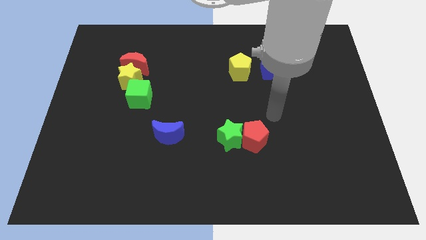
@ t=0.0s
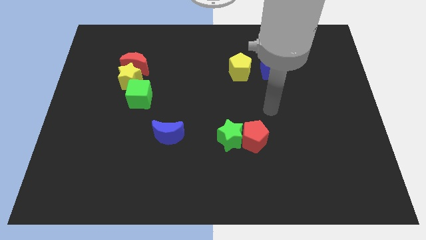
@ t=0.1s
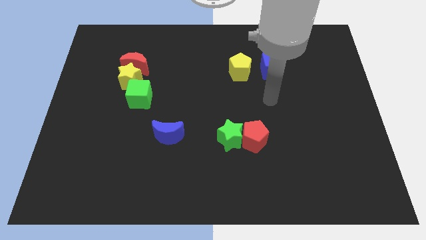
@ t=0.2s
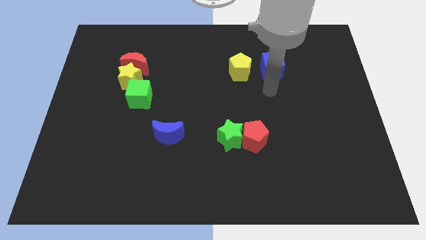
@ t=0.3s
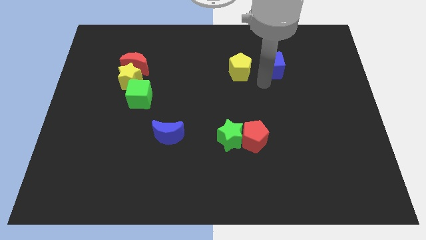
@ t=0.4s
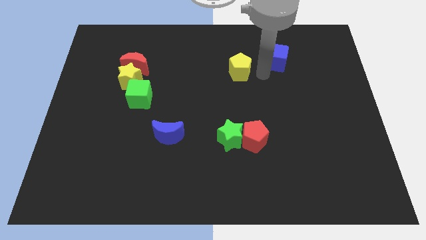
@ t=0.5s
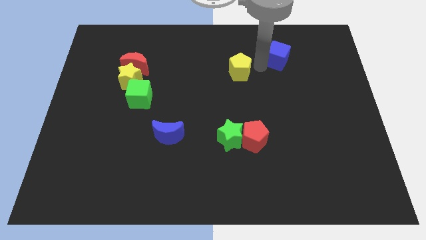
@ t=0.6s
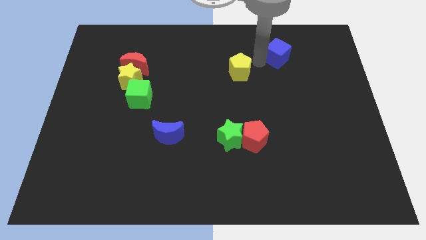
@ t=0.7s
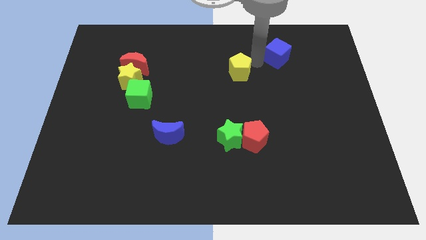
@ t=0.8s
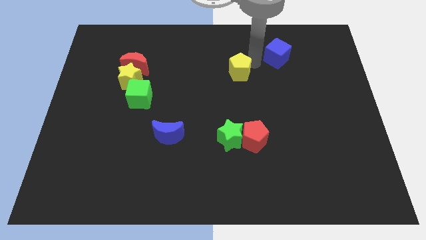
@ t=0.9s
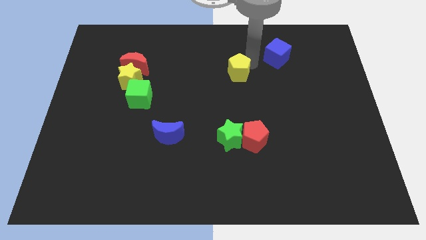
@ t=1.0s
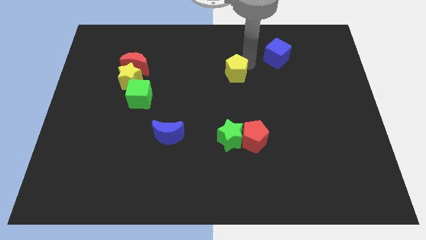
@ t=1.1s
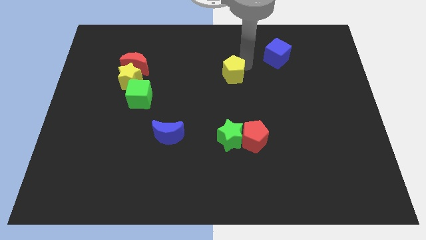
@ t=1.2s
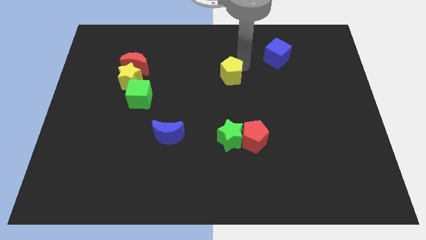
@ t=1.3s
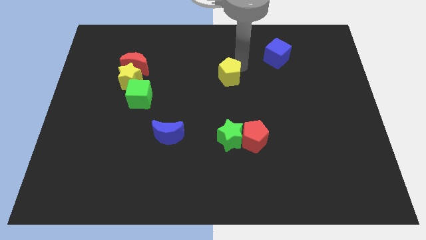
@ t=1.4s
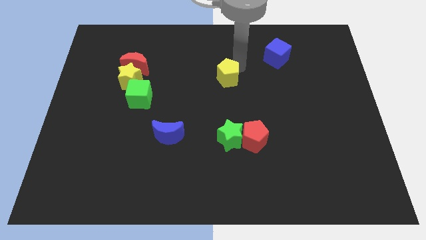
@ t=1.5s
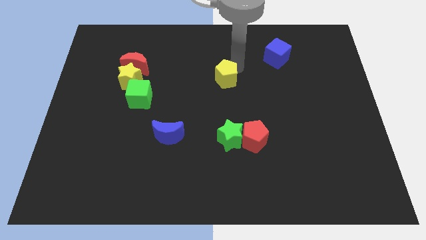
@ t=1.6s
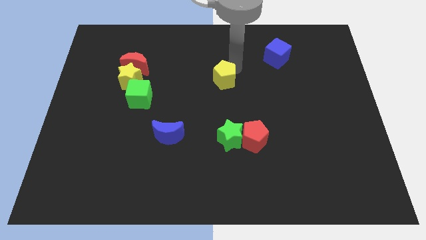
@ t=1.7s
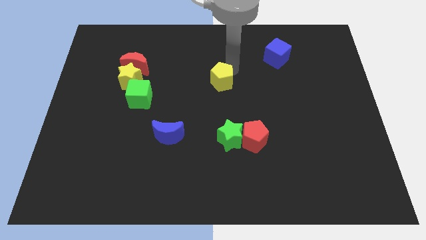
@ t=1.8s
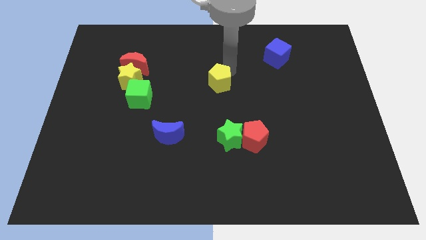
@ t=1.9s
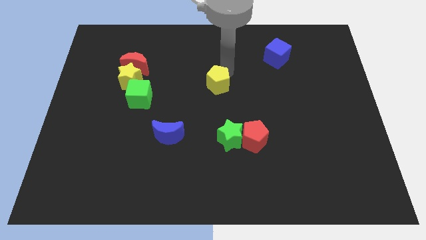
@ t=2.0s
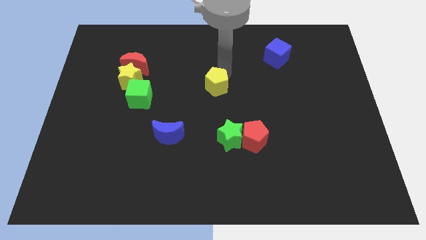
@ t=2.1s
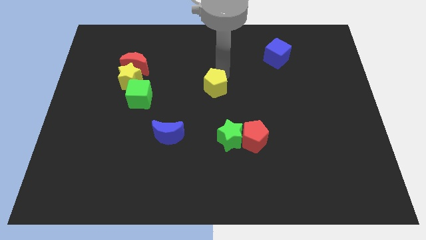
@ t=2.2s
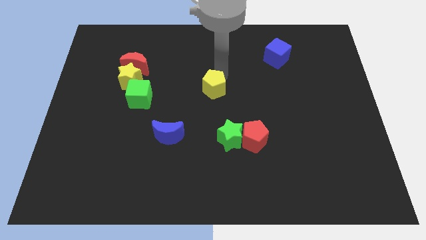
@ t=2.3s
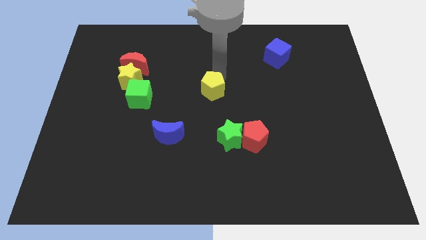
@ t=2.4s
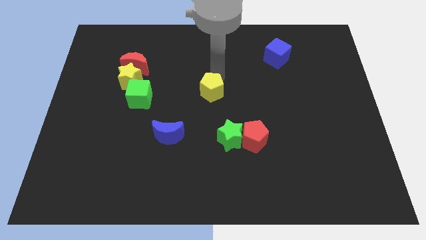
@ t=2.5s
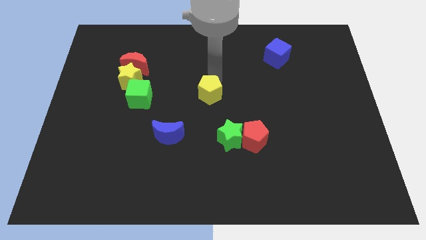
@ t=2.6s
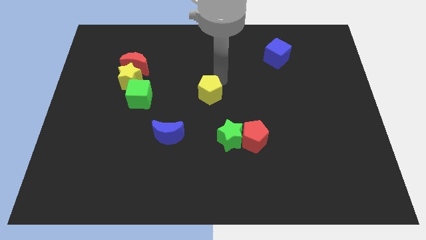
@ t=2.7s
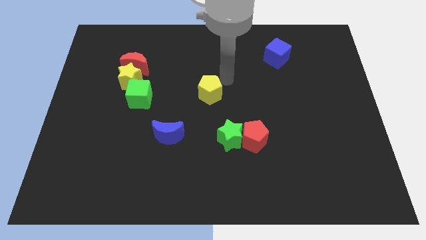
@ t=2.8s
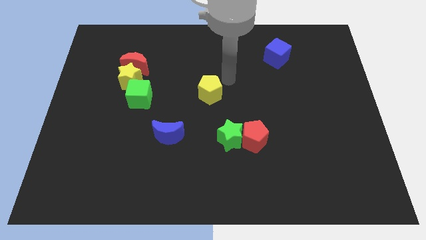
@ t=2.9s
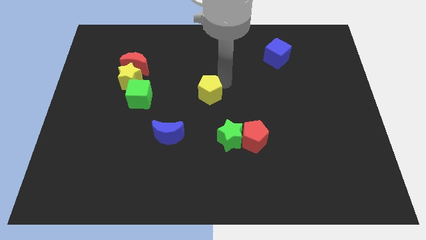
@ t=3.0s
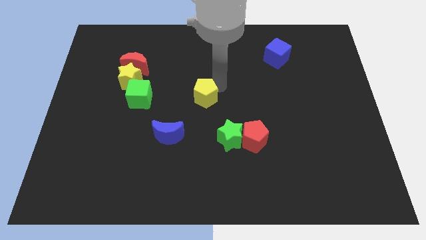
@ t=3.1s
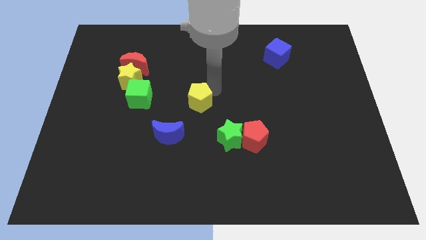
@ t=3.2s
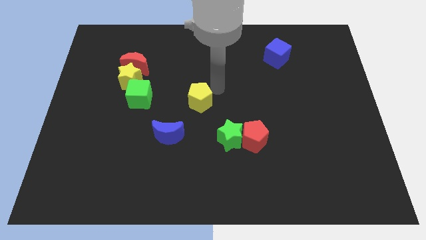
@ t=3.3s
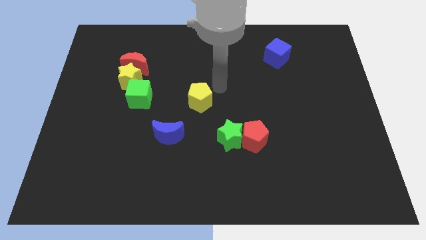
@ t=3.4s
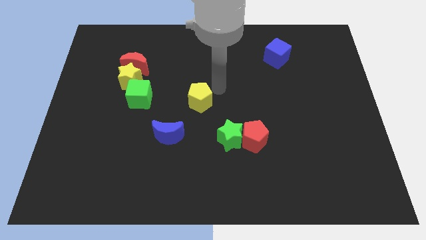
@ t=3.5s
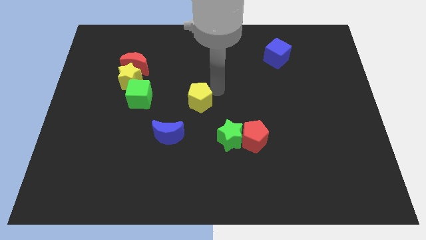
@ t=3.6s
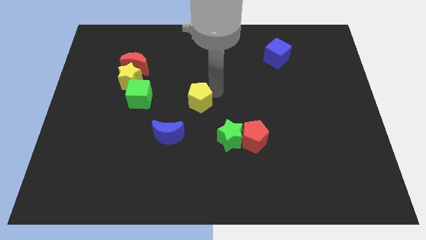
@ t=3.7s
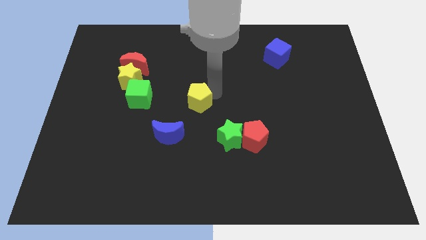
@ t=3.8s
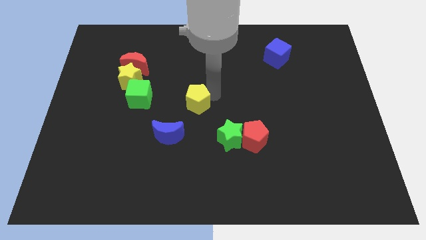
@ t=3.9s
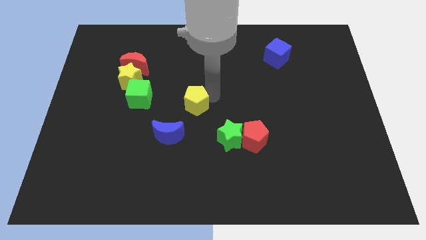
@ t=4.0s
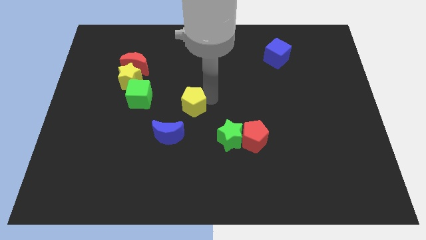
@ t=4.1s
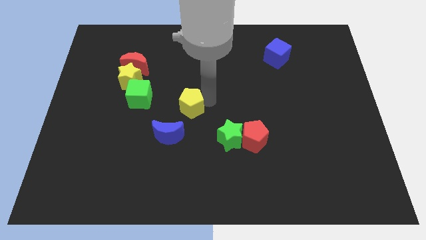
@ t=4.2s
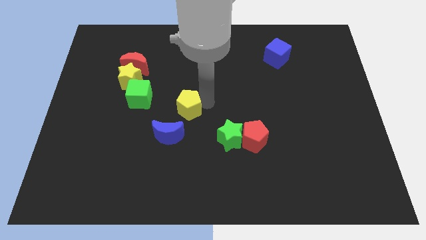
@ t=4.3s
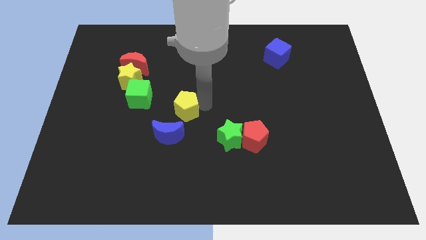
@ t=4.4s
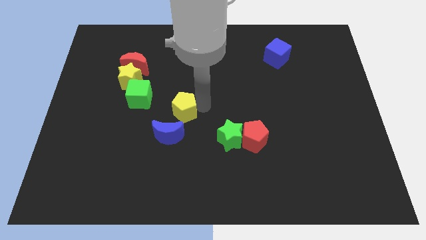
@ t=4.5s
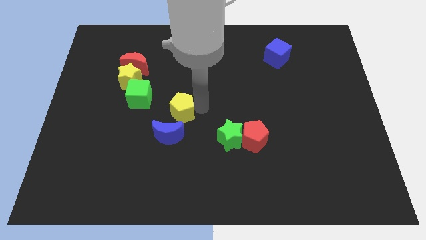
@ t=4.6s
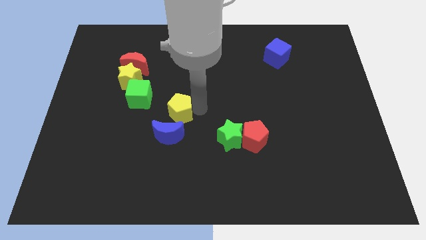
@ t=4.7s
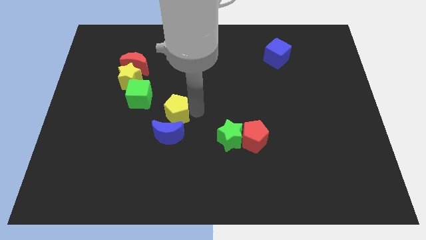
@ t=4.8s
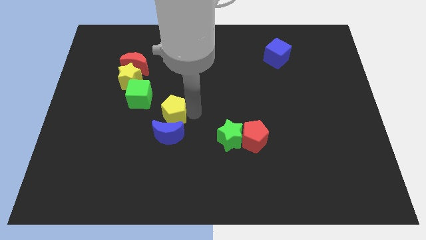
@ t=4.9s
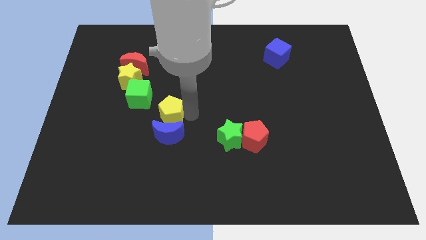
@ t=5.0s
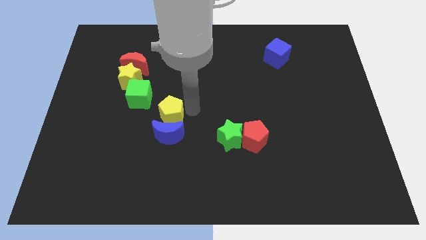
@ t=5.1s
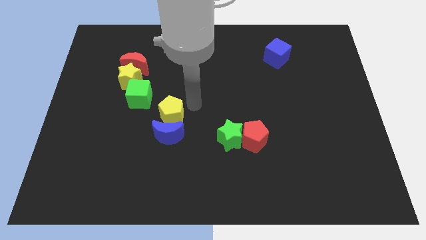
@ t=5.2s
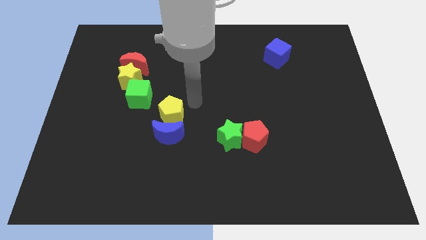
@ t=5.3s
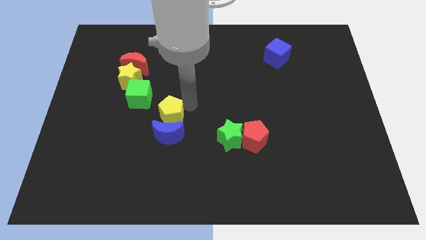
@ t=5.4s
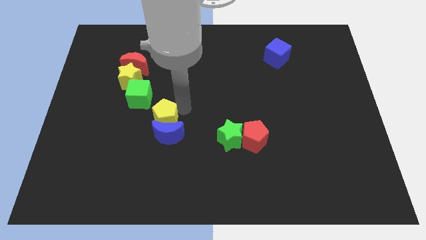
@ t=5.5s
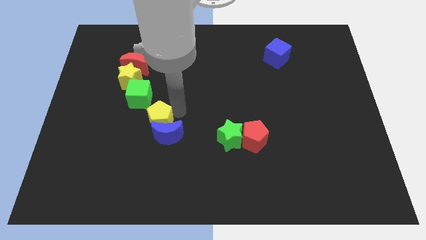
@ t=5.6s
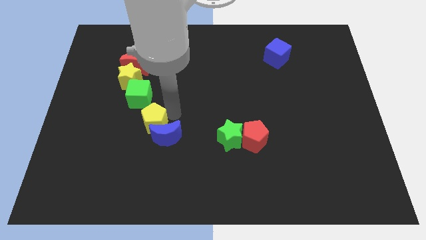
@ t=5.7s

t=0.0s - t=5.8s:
slide the yellow pentagon to the bottom side of the green cube

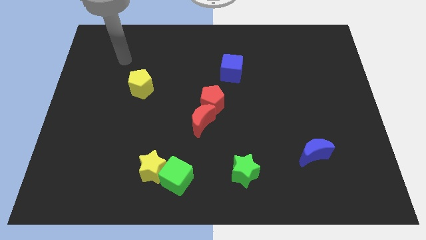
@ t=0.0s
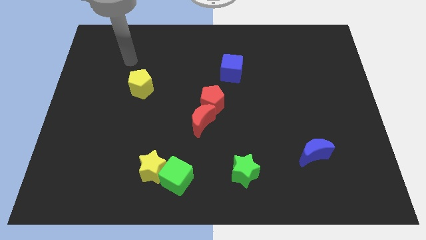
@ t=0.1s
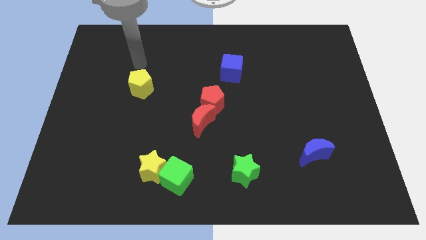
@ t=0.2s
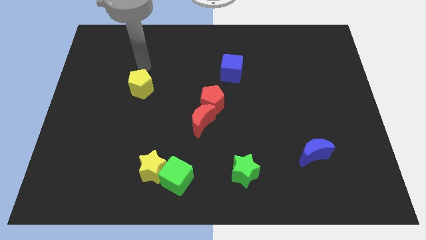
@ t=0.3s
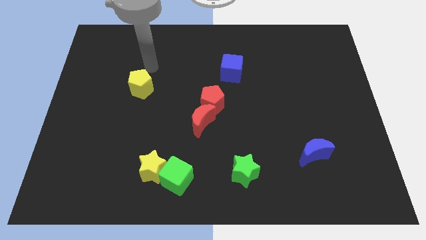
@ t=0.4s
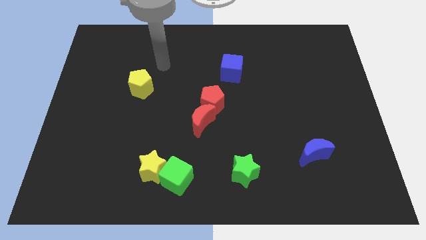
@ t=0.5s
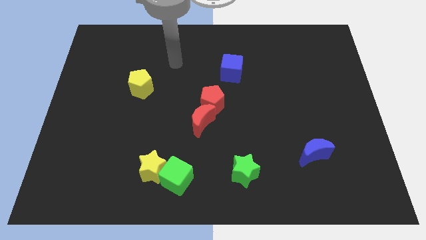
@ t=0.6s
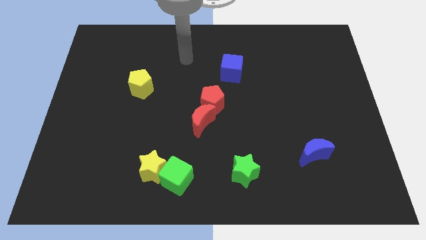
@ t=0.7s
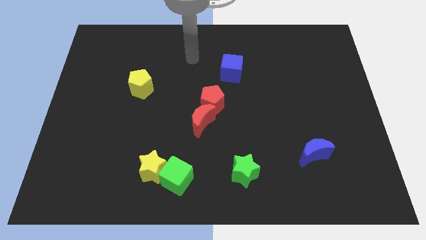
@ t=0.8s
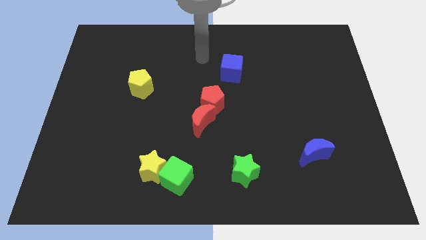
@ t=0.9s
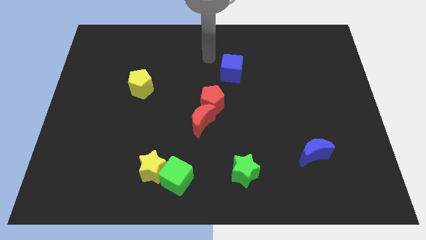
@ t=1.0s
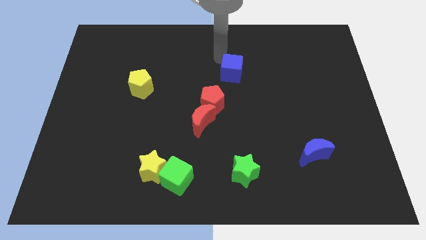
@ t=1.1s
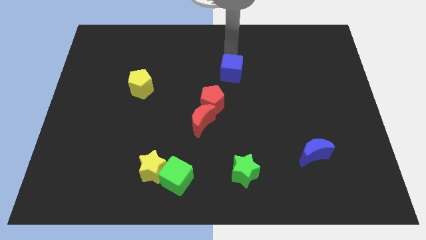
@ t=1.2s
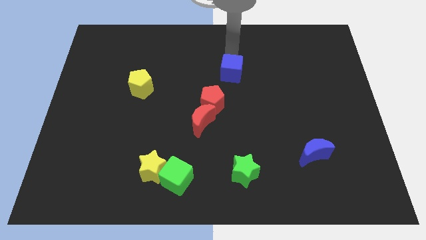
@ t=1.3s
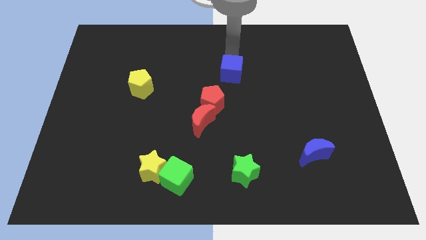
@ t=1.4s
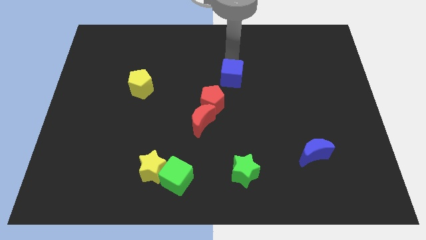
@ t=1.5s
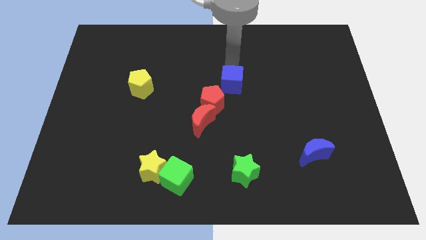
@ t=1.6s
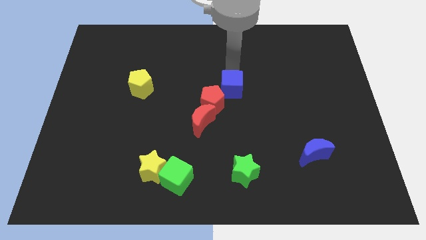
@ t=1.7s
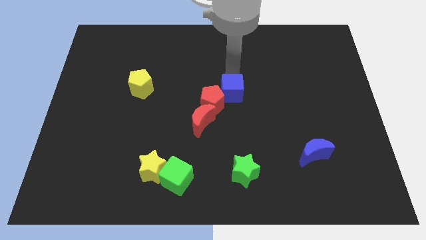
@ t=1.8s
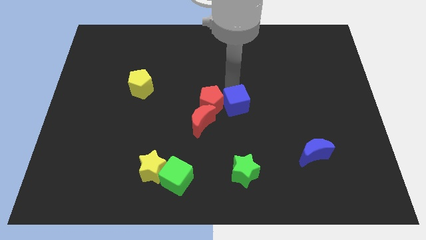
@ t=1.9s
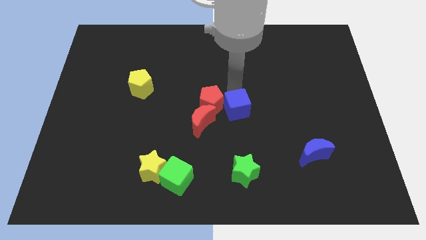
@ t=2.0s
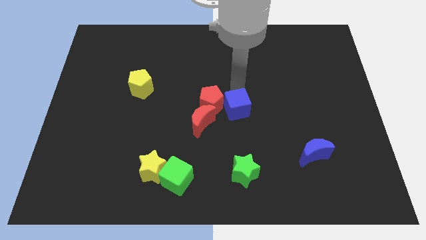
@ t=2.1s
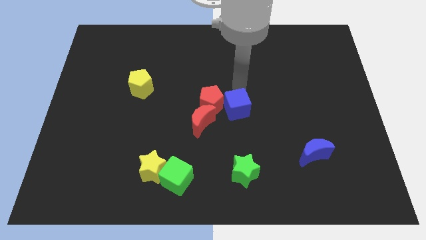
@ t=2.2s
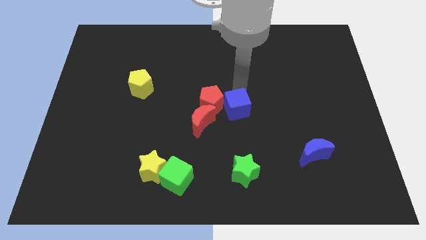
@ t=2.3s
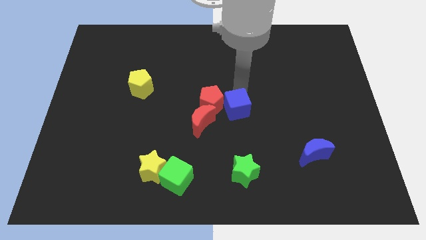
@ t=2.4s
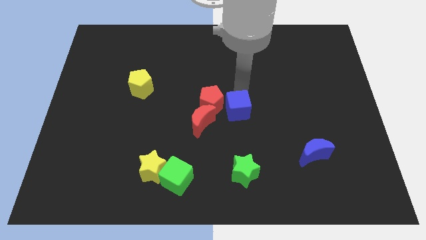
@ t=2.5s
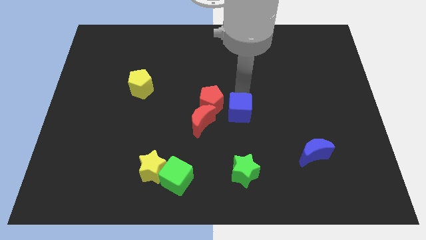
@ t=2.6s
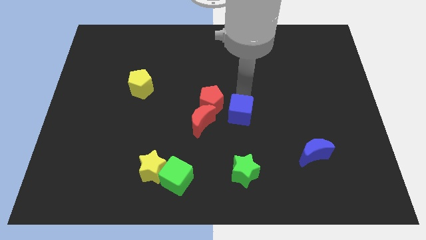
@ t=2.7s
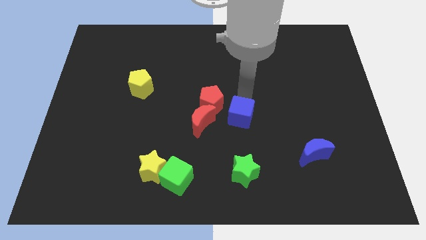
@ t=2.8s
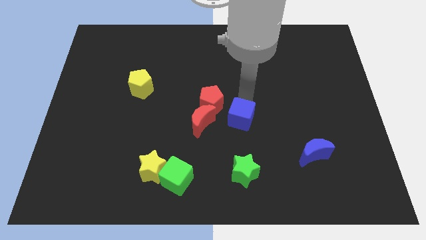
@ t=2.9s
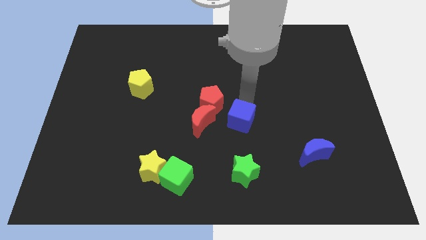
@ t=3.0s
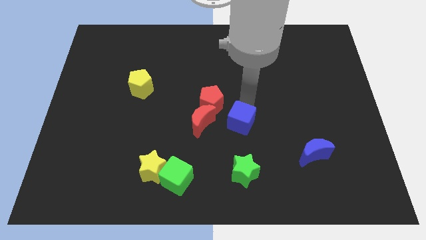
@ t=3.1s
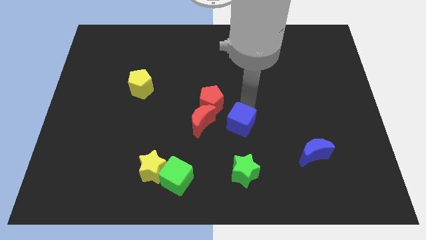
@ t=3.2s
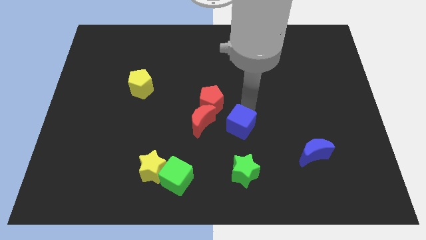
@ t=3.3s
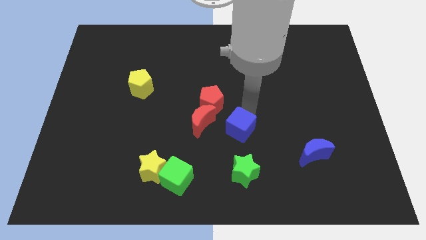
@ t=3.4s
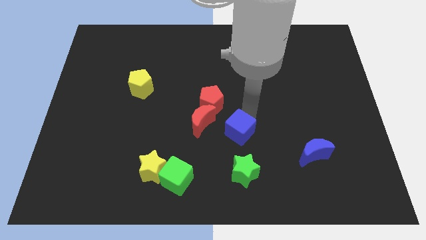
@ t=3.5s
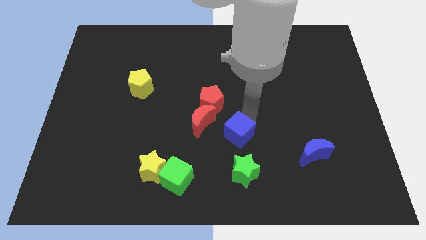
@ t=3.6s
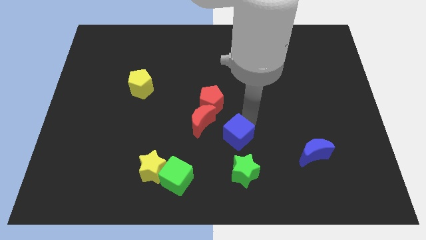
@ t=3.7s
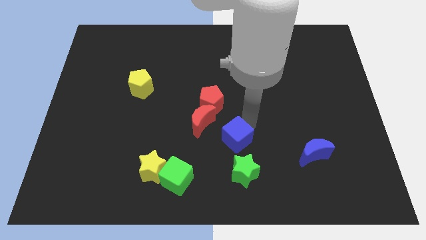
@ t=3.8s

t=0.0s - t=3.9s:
slide the blue cube to the top left side of the green star
